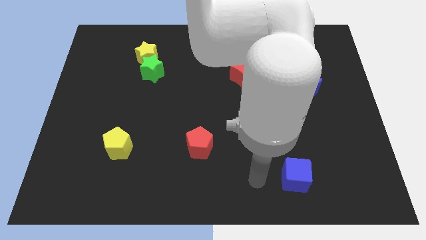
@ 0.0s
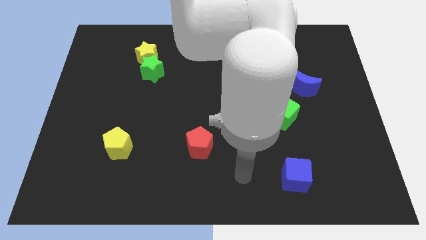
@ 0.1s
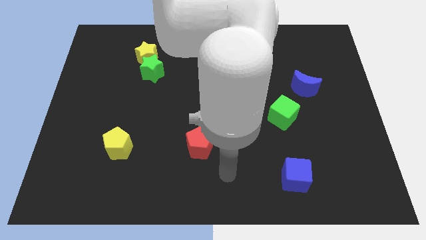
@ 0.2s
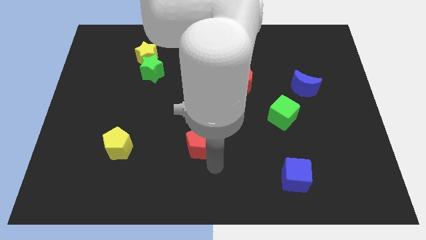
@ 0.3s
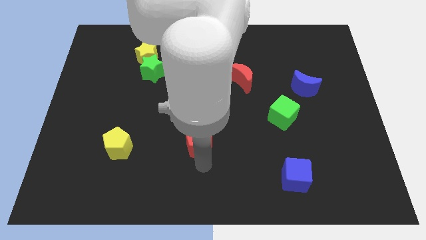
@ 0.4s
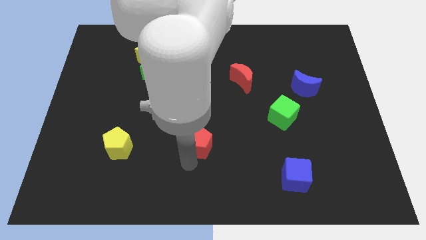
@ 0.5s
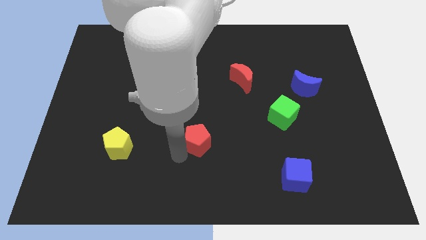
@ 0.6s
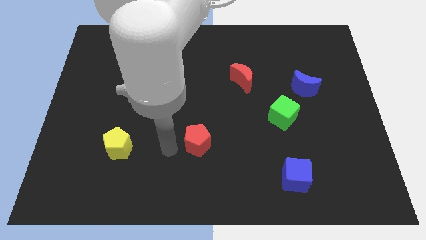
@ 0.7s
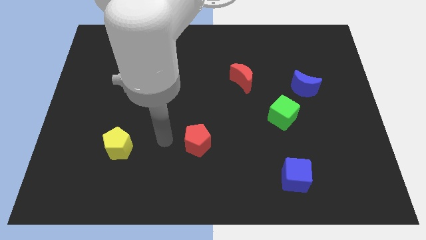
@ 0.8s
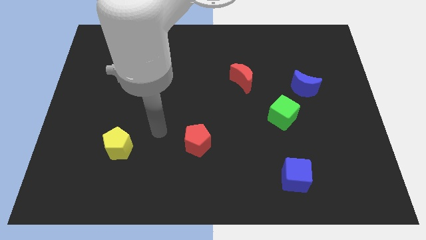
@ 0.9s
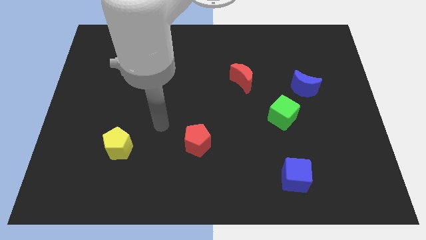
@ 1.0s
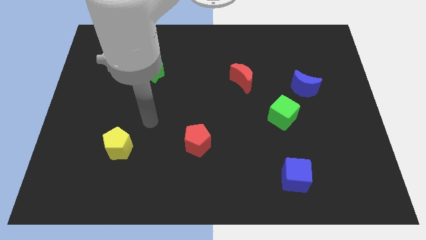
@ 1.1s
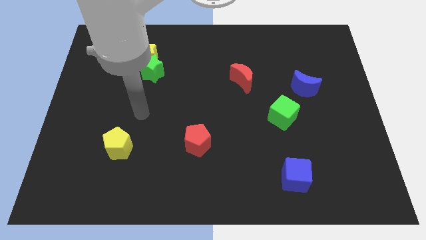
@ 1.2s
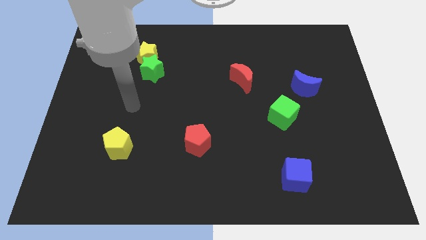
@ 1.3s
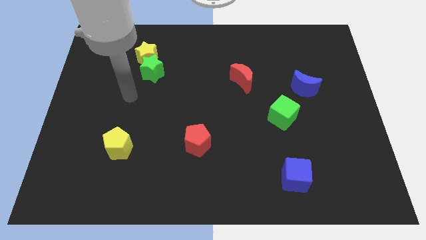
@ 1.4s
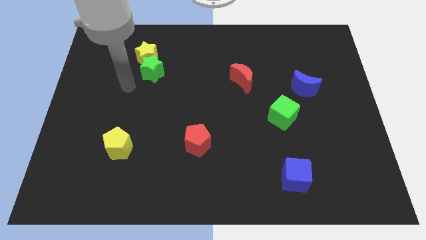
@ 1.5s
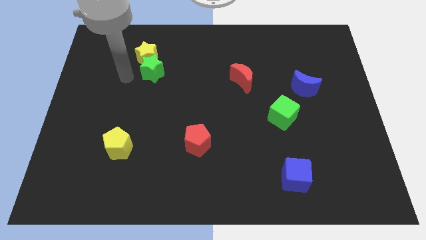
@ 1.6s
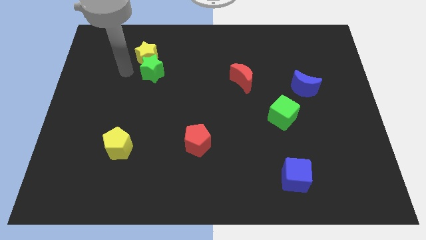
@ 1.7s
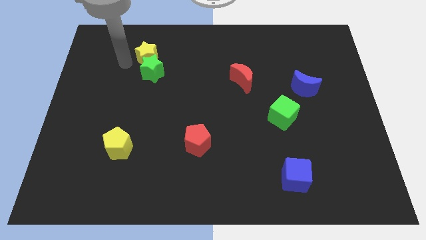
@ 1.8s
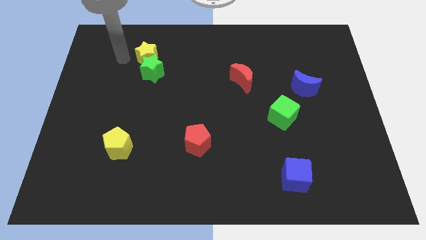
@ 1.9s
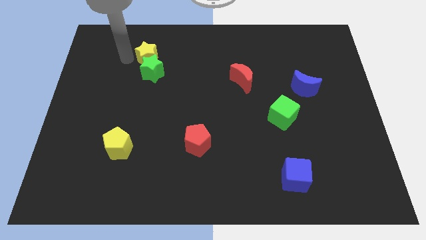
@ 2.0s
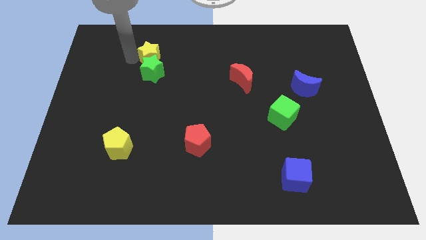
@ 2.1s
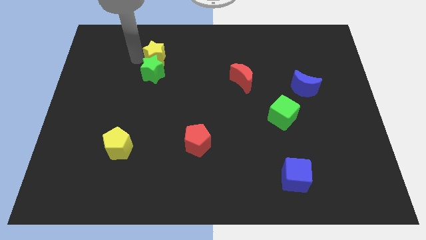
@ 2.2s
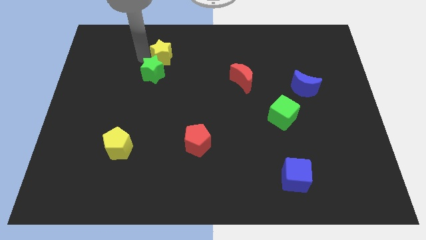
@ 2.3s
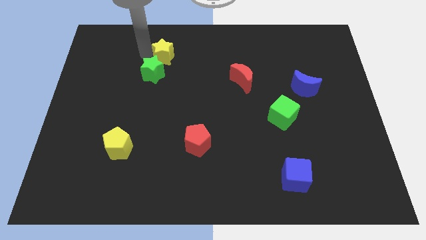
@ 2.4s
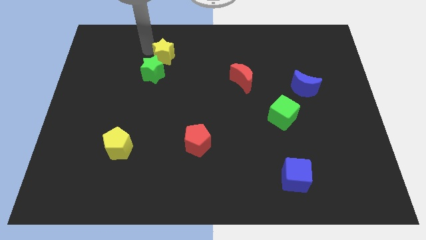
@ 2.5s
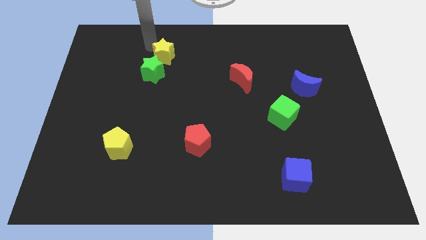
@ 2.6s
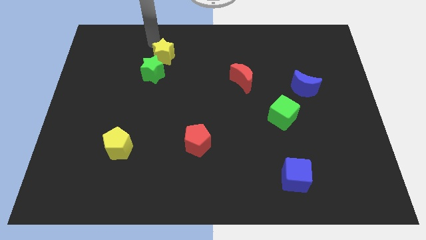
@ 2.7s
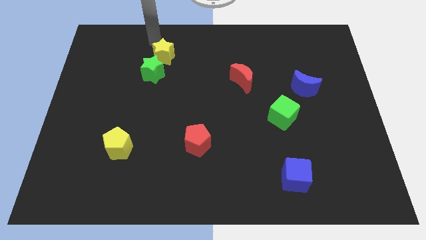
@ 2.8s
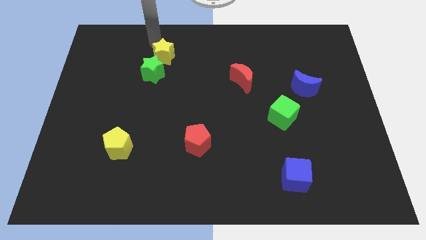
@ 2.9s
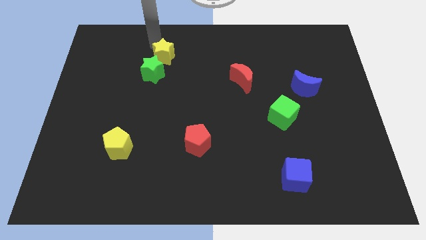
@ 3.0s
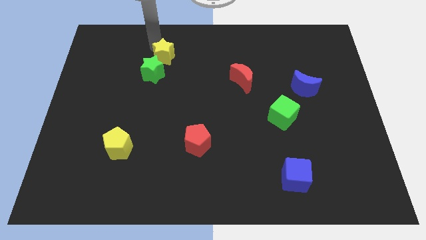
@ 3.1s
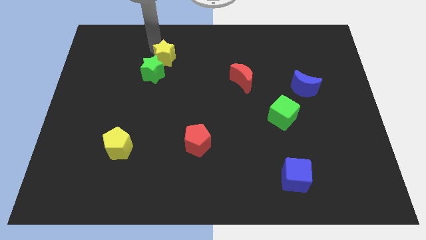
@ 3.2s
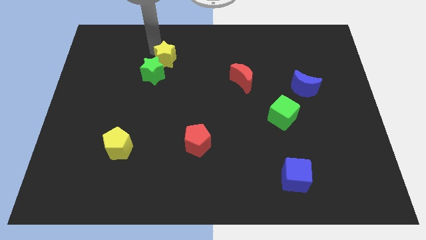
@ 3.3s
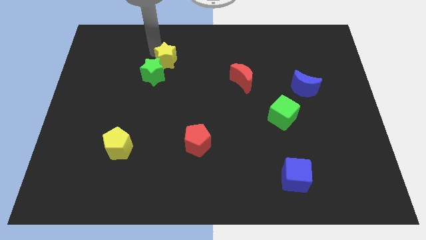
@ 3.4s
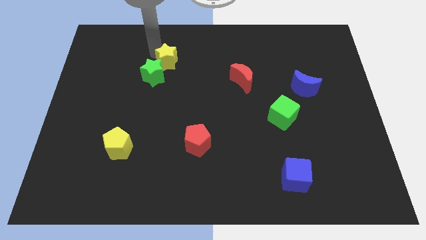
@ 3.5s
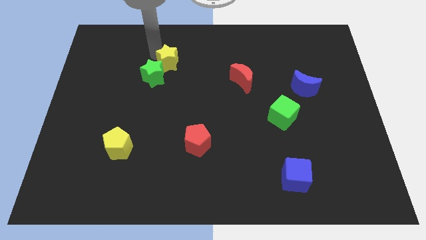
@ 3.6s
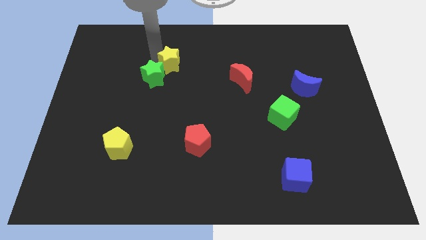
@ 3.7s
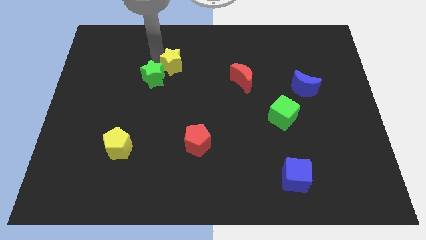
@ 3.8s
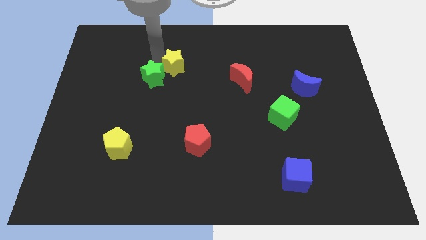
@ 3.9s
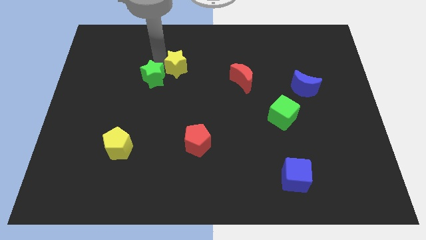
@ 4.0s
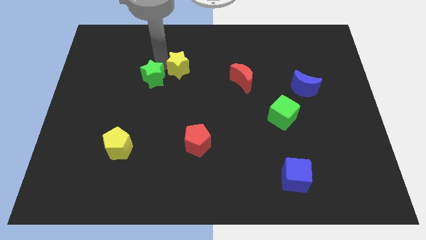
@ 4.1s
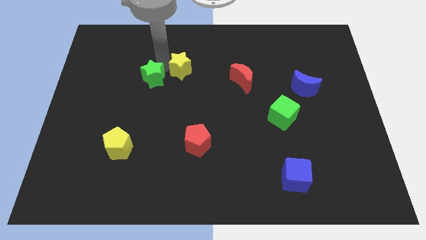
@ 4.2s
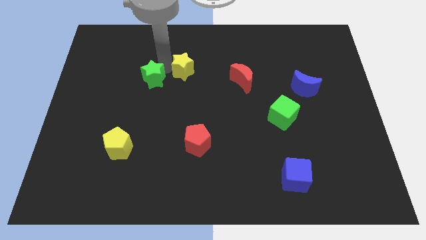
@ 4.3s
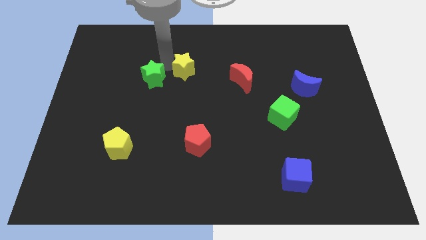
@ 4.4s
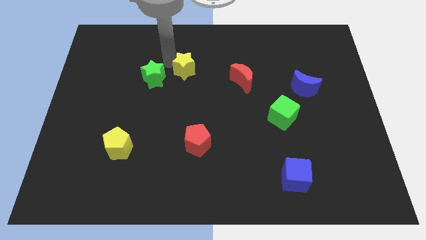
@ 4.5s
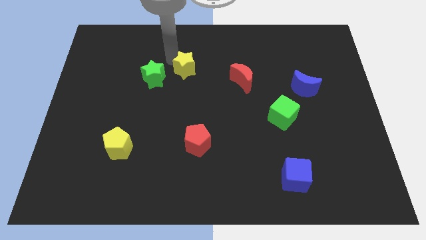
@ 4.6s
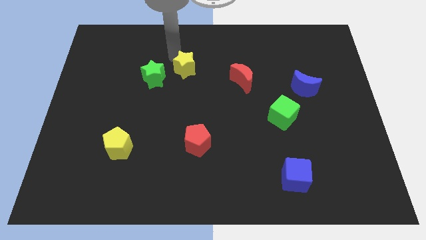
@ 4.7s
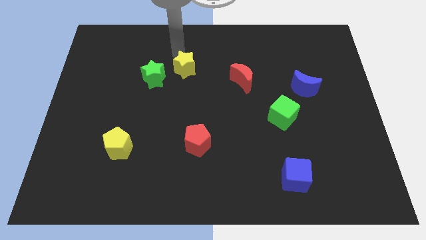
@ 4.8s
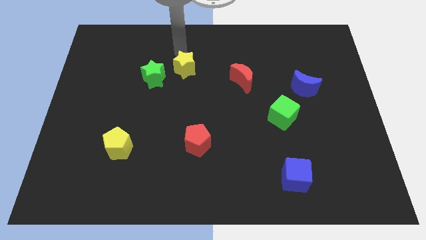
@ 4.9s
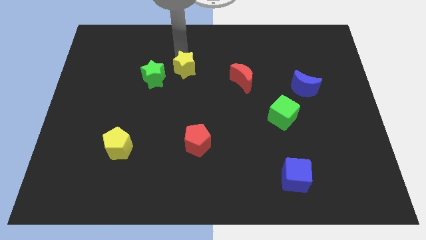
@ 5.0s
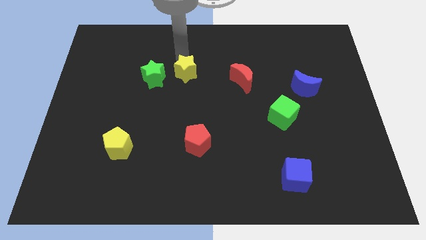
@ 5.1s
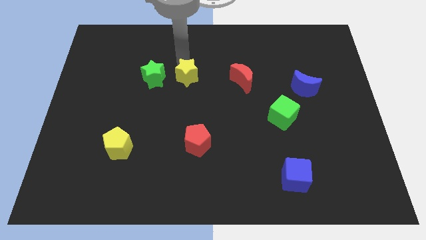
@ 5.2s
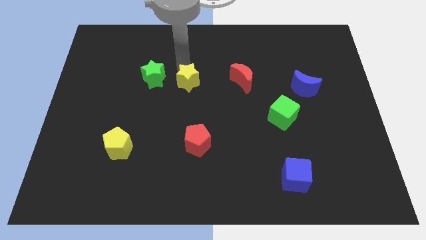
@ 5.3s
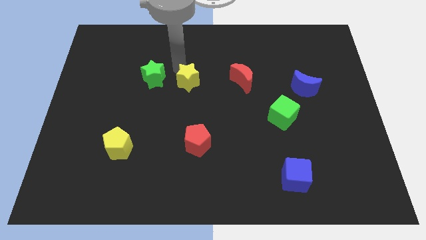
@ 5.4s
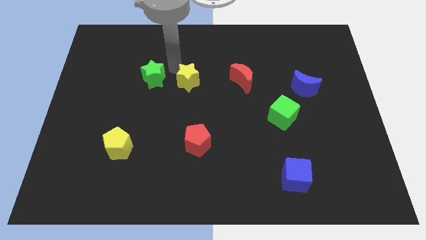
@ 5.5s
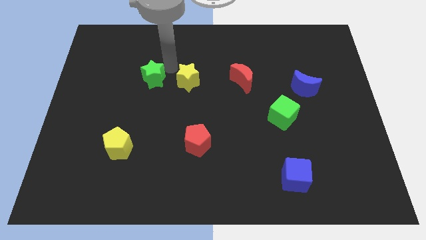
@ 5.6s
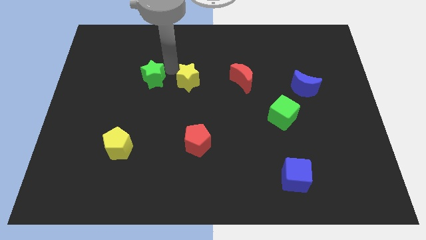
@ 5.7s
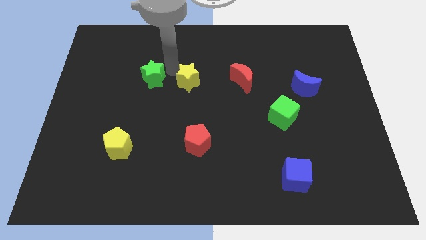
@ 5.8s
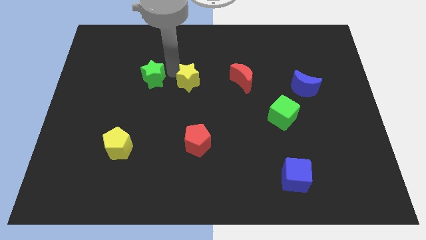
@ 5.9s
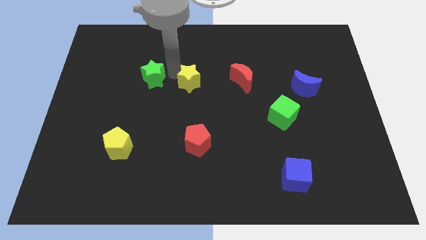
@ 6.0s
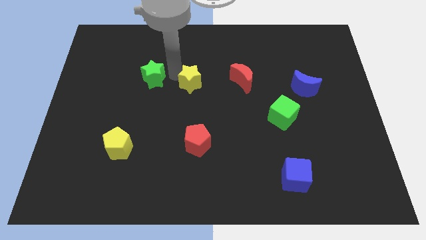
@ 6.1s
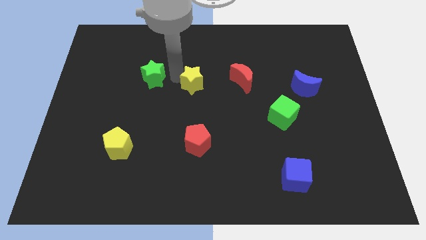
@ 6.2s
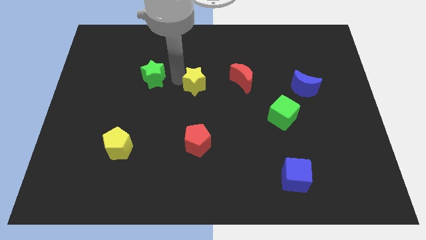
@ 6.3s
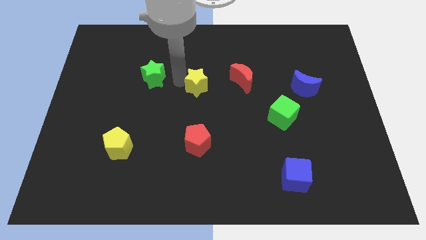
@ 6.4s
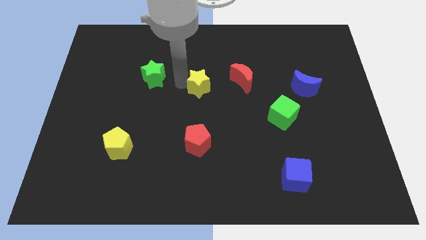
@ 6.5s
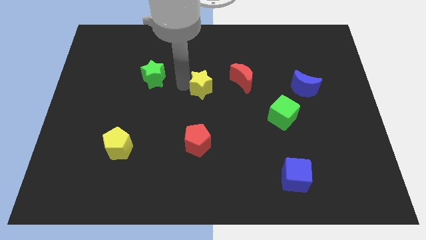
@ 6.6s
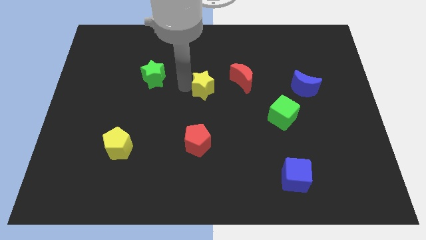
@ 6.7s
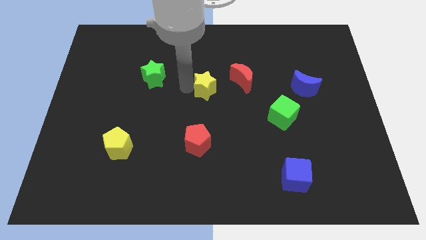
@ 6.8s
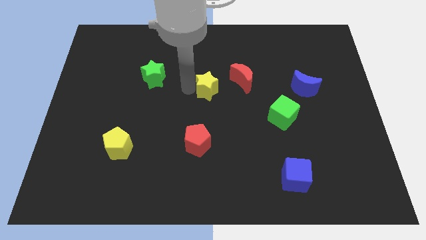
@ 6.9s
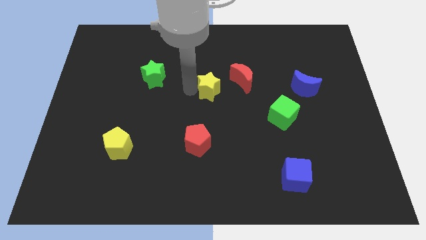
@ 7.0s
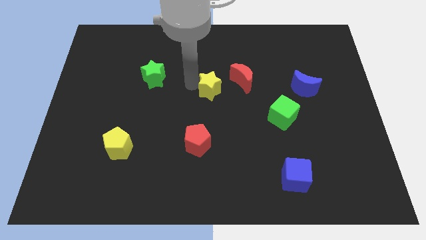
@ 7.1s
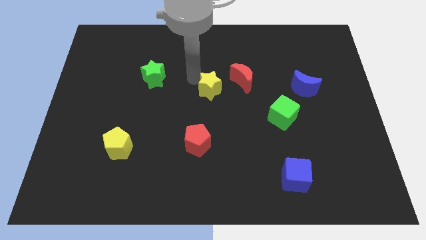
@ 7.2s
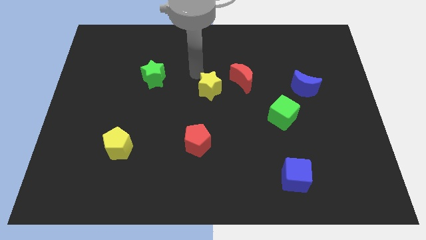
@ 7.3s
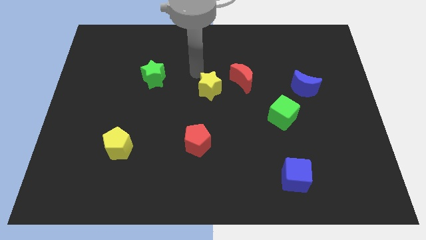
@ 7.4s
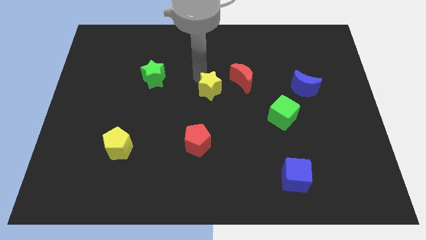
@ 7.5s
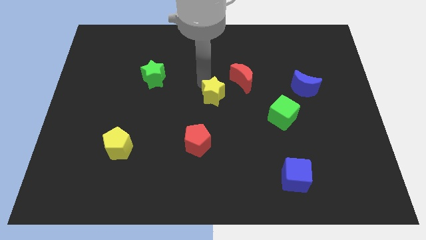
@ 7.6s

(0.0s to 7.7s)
push the yellow star diagonally down and to the right

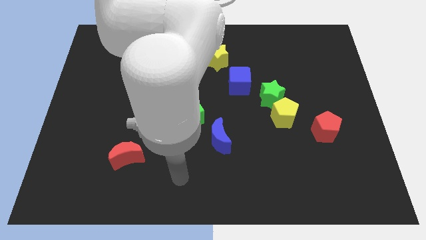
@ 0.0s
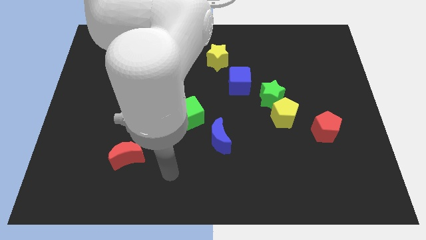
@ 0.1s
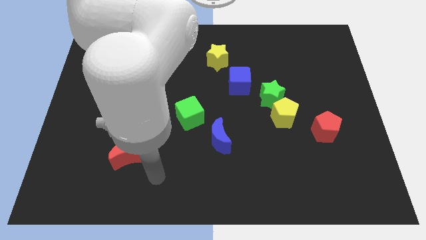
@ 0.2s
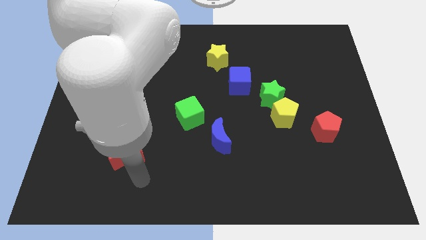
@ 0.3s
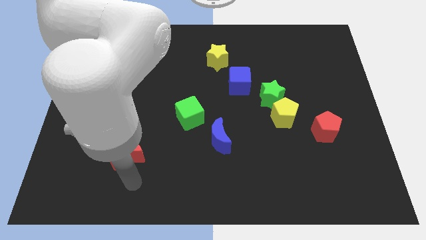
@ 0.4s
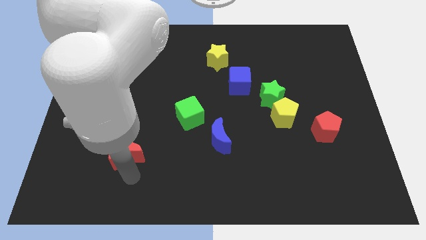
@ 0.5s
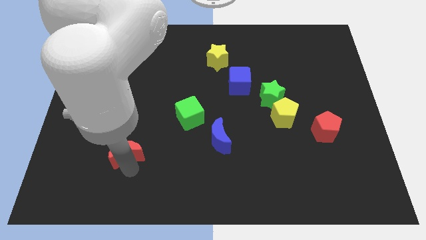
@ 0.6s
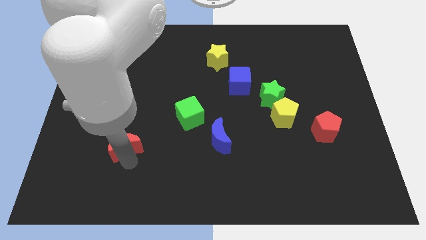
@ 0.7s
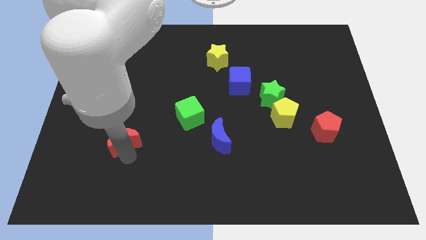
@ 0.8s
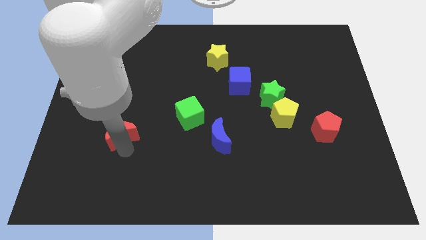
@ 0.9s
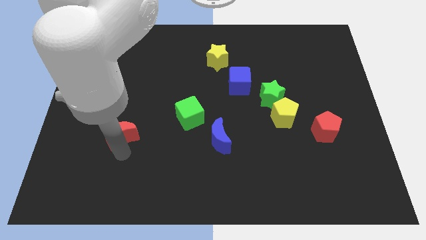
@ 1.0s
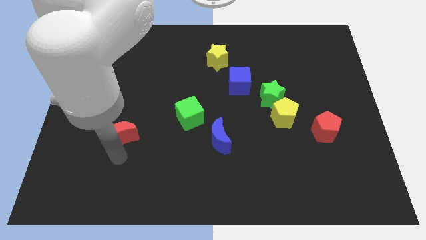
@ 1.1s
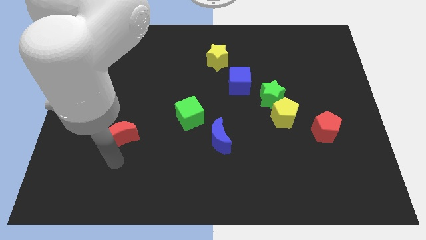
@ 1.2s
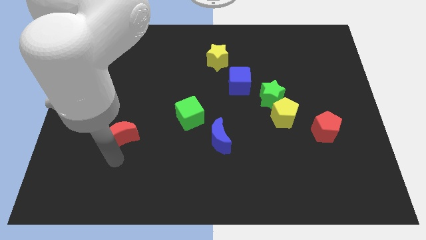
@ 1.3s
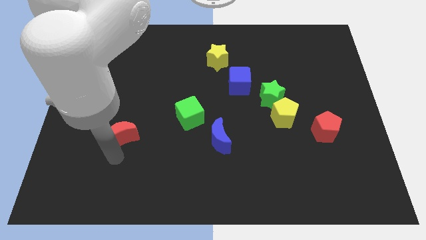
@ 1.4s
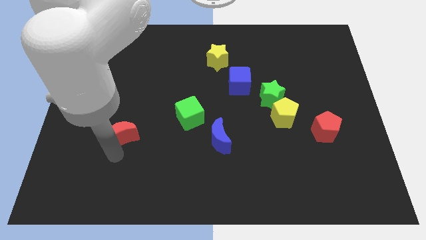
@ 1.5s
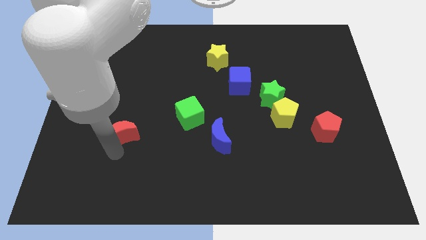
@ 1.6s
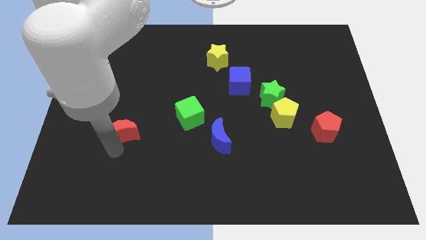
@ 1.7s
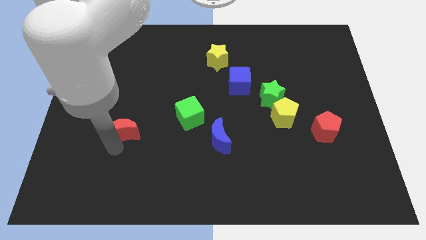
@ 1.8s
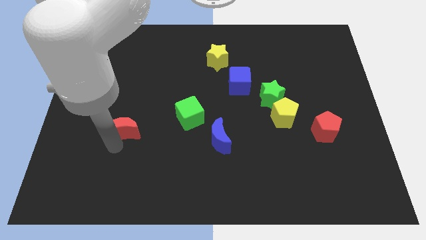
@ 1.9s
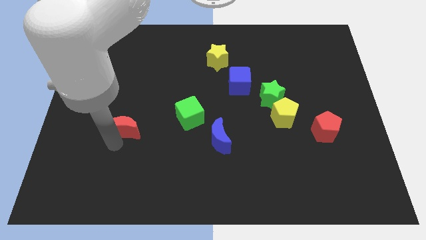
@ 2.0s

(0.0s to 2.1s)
push the red moon a little upwards
